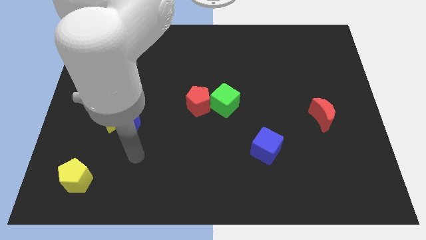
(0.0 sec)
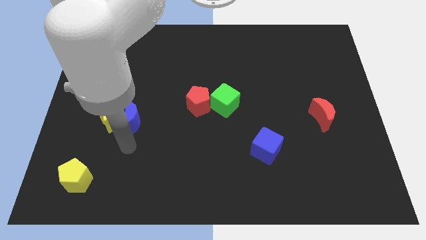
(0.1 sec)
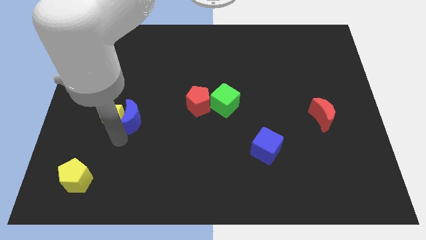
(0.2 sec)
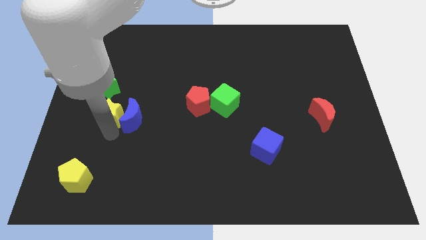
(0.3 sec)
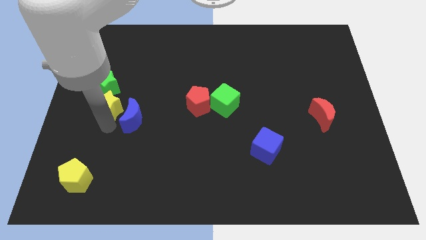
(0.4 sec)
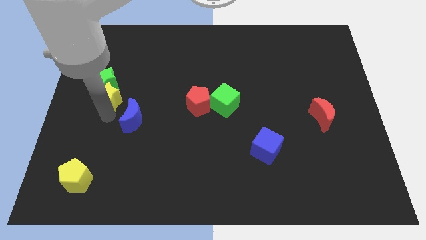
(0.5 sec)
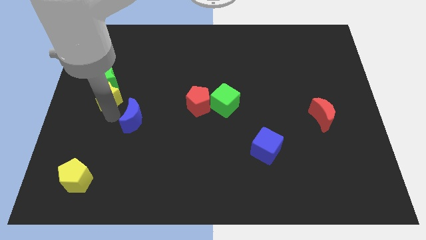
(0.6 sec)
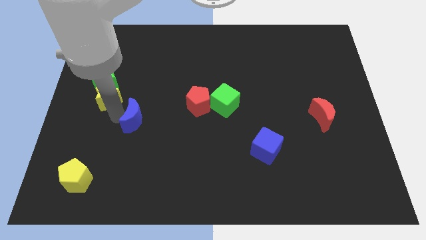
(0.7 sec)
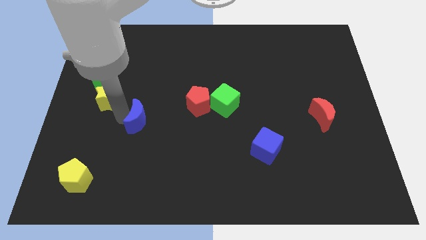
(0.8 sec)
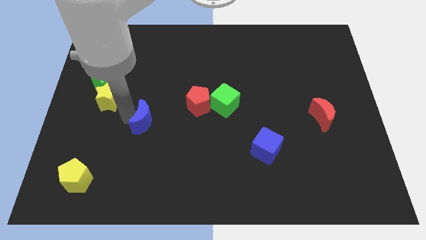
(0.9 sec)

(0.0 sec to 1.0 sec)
move the blue moon away from the yellow star

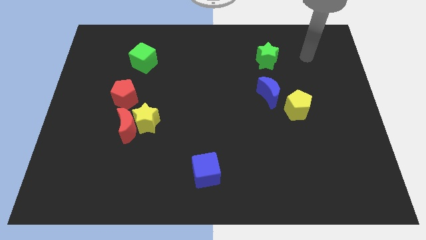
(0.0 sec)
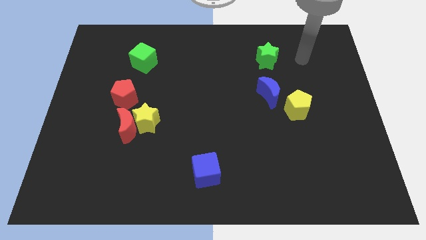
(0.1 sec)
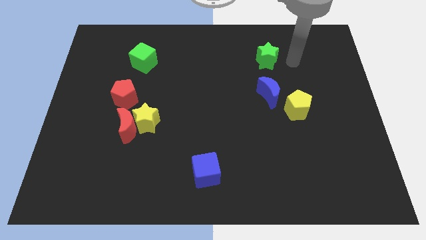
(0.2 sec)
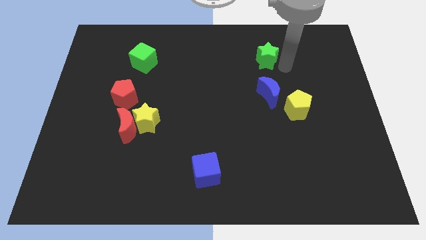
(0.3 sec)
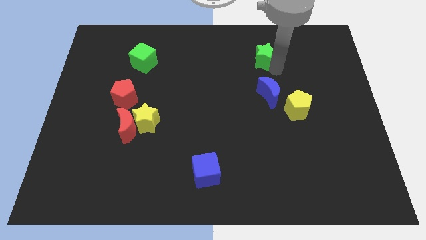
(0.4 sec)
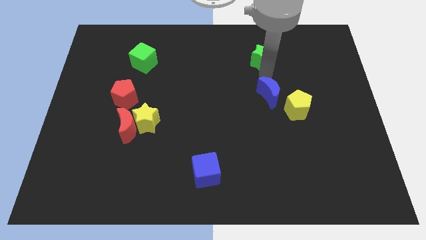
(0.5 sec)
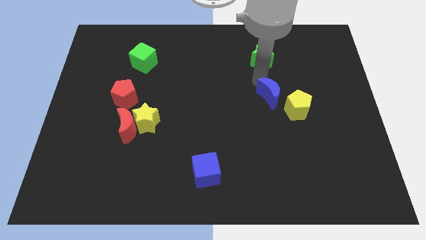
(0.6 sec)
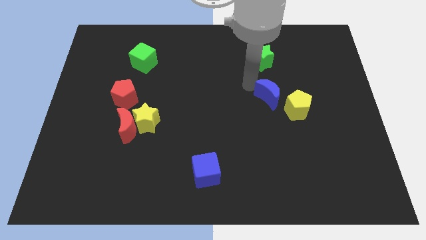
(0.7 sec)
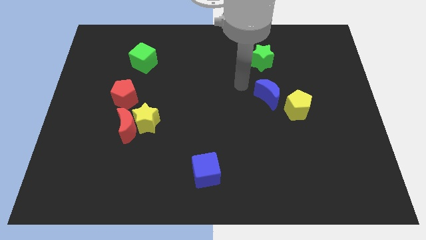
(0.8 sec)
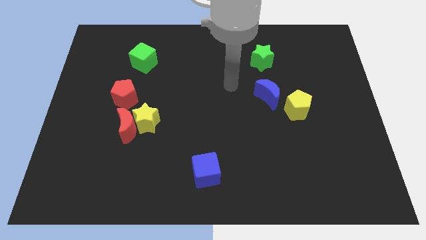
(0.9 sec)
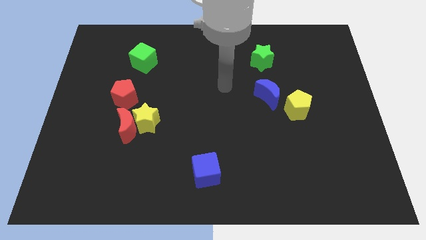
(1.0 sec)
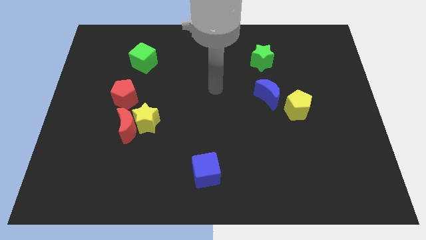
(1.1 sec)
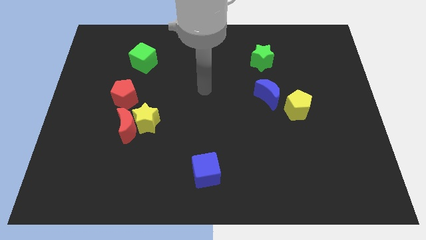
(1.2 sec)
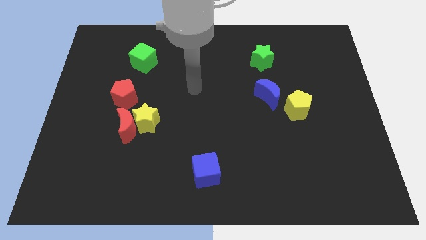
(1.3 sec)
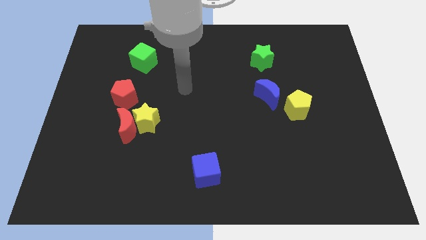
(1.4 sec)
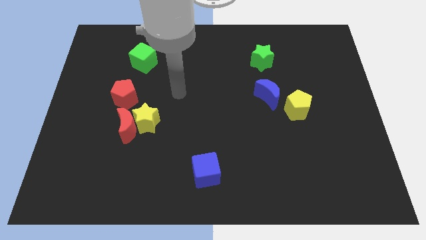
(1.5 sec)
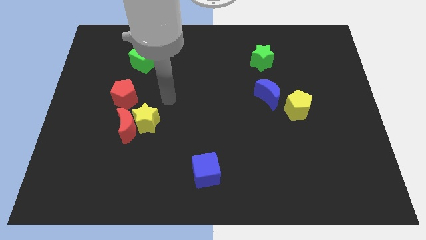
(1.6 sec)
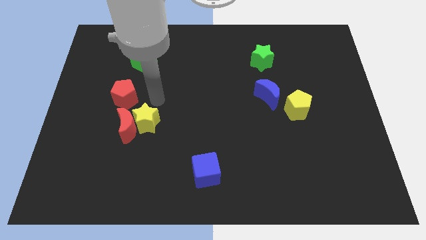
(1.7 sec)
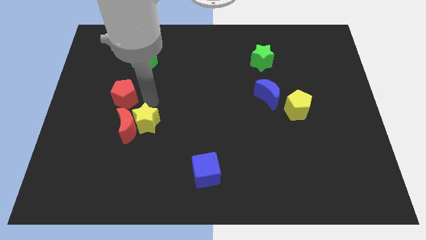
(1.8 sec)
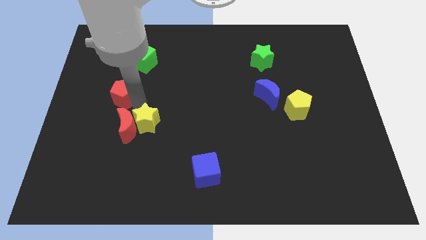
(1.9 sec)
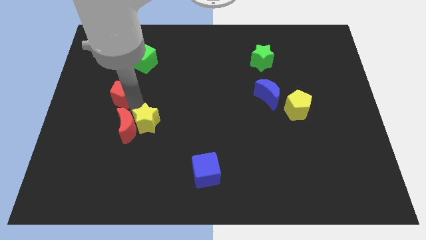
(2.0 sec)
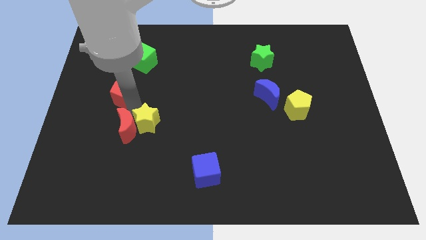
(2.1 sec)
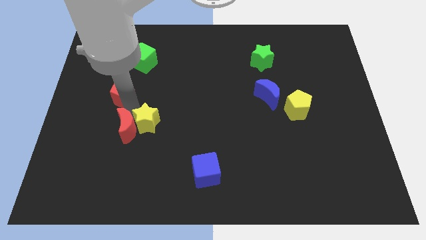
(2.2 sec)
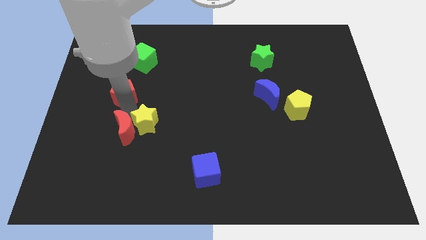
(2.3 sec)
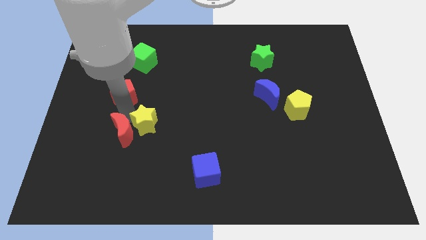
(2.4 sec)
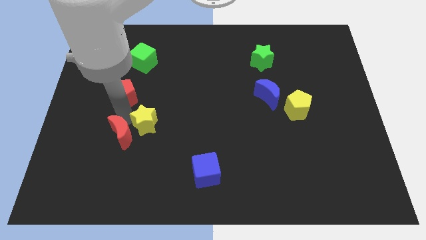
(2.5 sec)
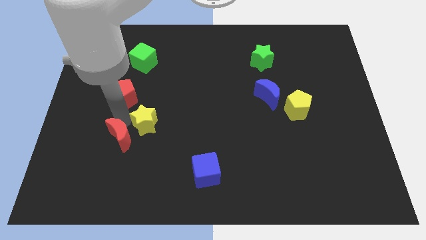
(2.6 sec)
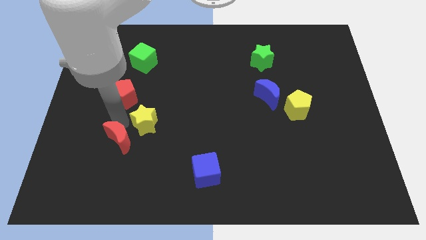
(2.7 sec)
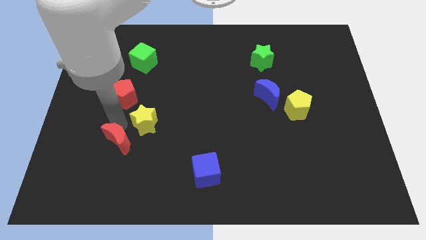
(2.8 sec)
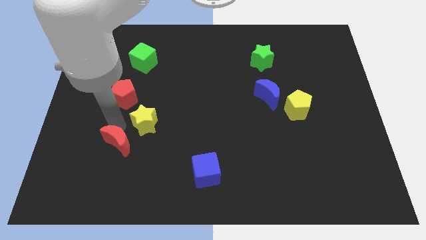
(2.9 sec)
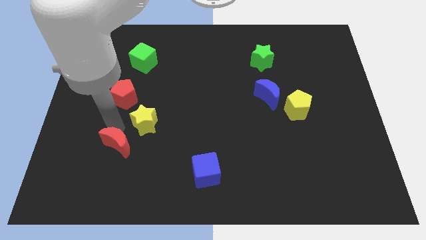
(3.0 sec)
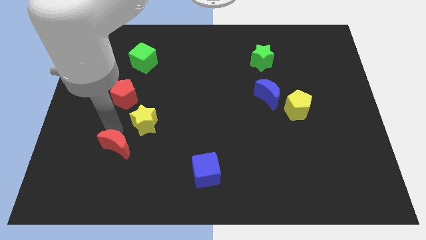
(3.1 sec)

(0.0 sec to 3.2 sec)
separate the red moon from the yellow star and red pentagon

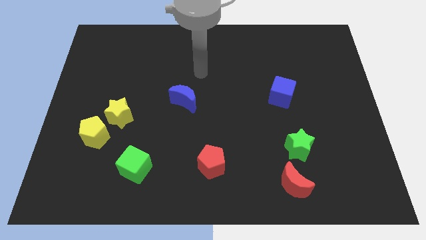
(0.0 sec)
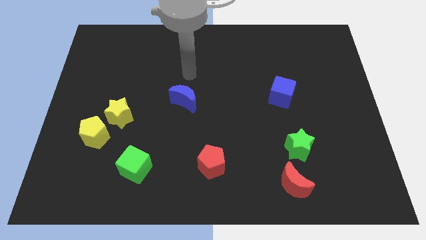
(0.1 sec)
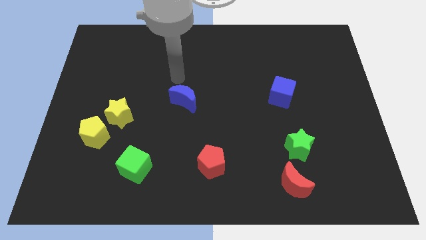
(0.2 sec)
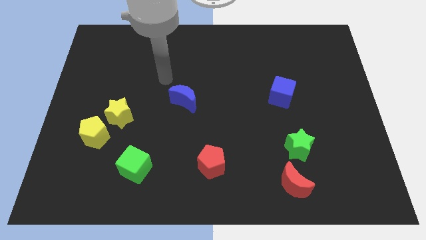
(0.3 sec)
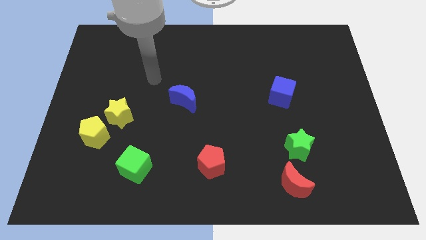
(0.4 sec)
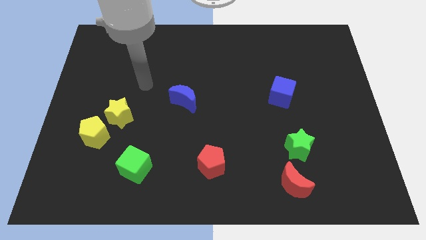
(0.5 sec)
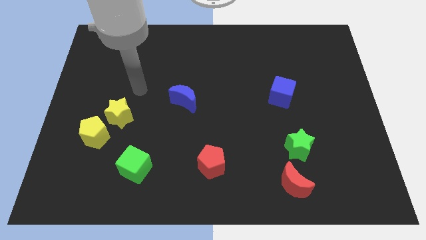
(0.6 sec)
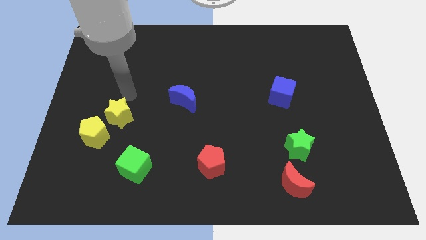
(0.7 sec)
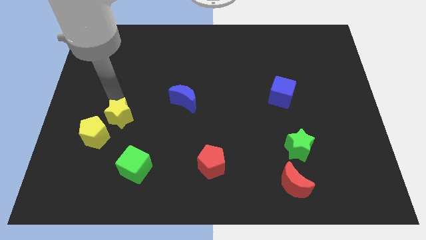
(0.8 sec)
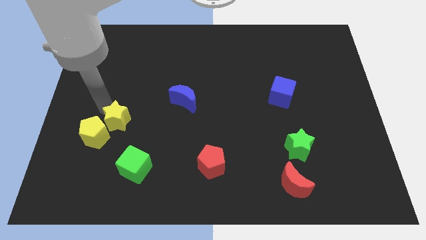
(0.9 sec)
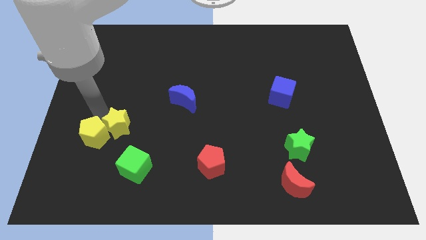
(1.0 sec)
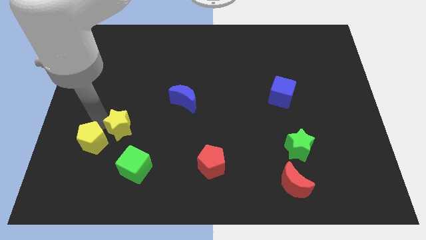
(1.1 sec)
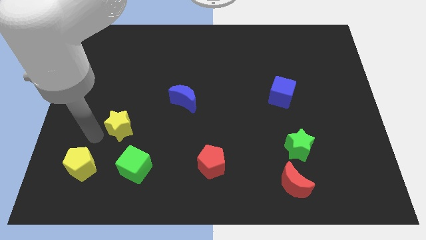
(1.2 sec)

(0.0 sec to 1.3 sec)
pull the yellow star apart from the yellow pentagon

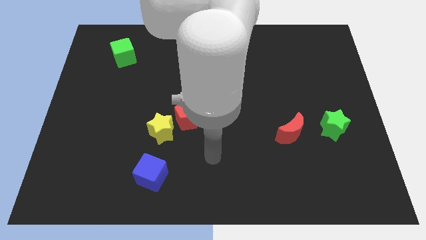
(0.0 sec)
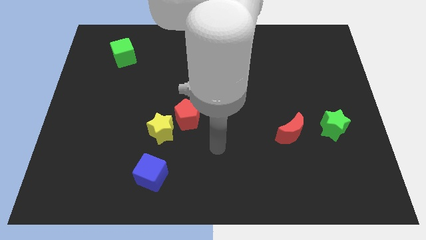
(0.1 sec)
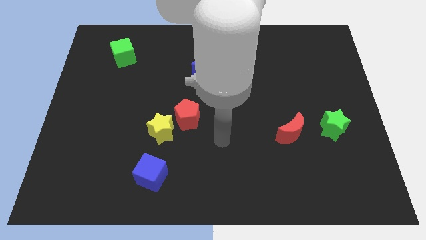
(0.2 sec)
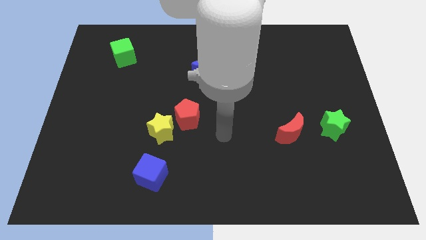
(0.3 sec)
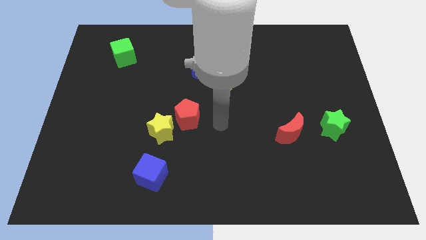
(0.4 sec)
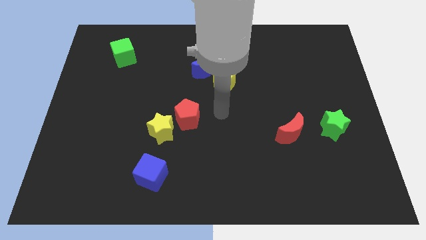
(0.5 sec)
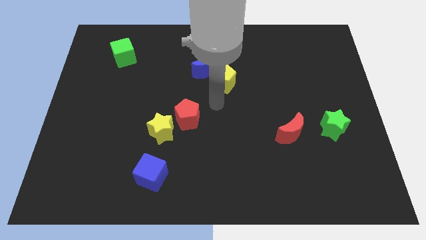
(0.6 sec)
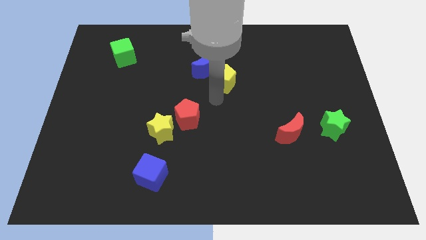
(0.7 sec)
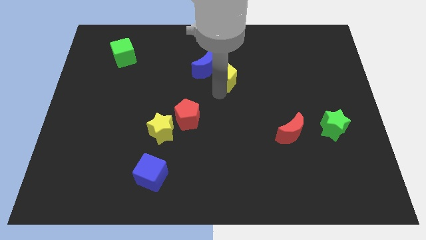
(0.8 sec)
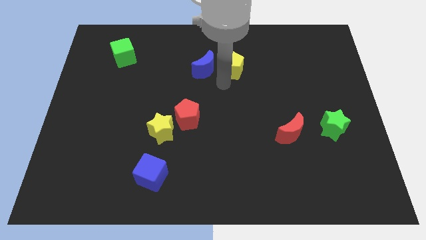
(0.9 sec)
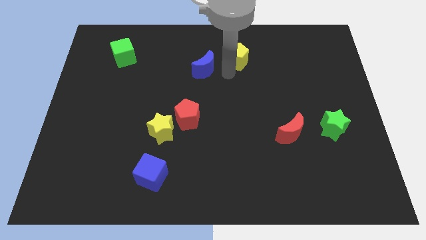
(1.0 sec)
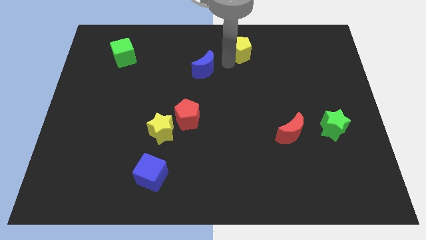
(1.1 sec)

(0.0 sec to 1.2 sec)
pull the blue moon apart from the yellow pentagon

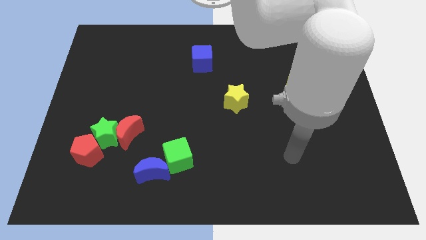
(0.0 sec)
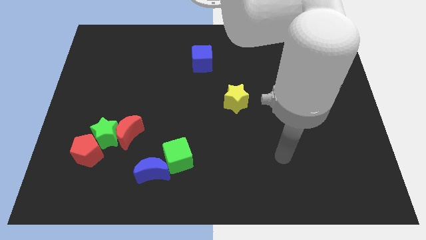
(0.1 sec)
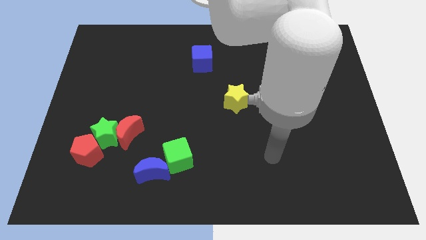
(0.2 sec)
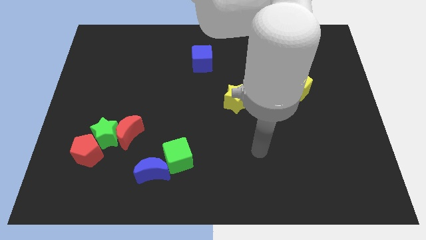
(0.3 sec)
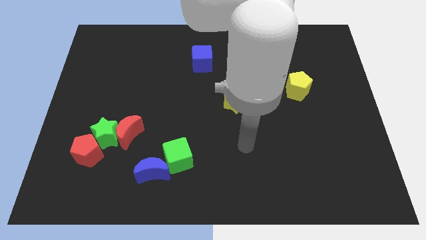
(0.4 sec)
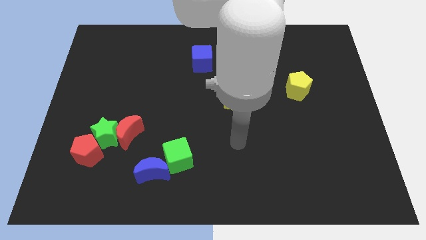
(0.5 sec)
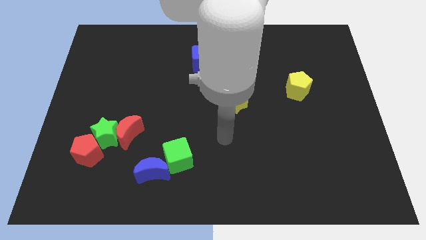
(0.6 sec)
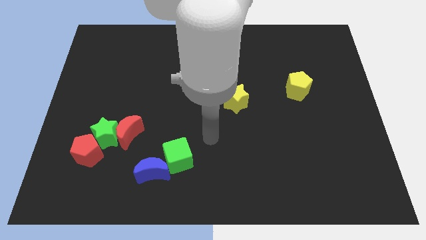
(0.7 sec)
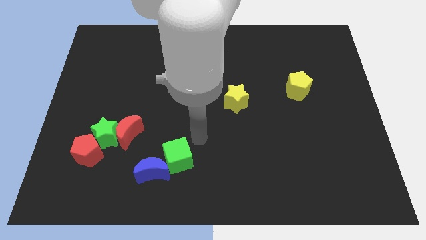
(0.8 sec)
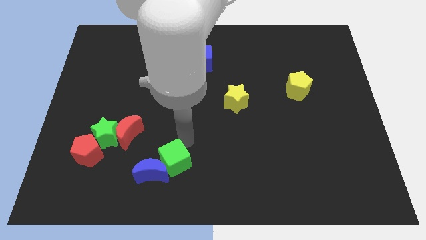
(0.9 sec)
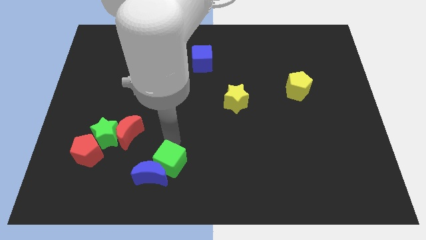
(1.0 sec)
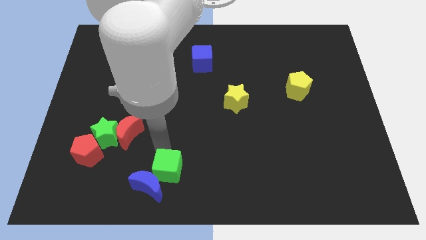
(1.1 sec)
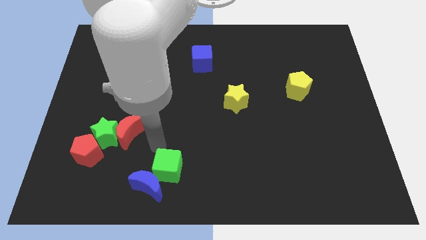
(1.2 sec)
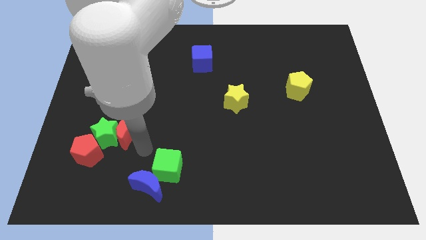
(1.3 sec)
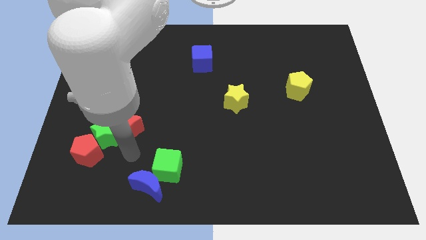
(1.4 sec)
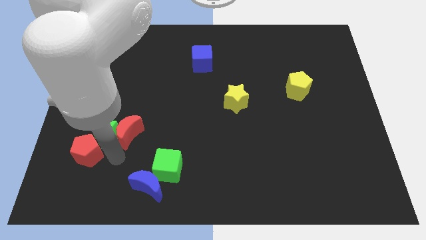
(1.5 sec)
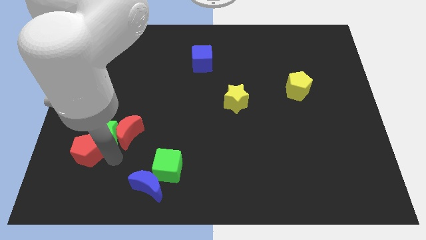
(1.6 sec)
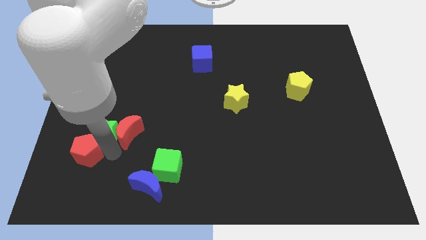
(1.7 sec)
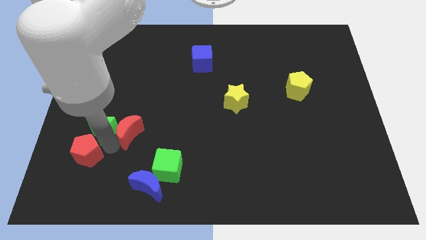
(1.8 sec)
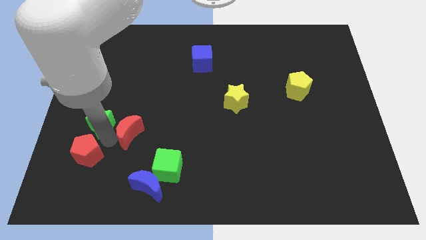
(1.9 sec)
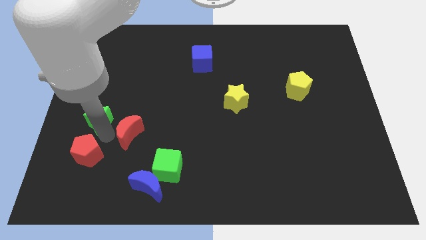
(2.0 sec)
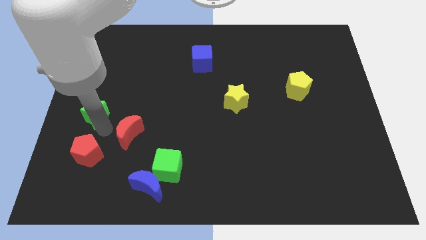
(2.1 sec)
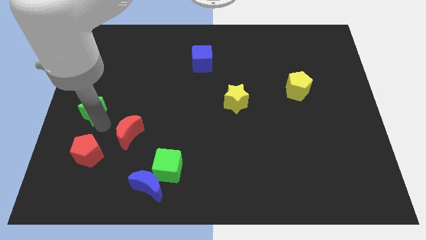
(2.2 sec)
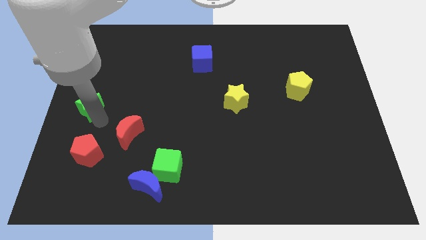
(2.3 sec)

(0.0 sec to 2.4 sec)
pull the green star apart from the red moon and red pentagon

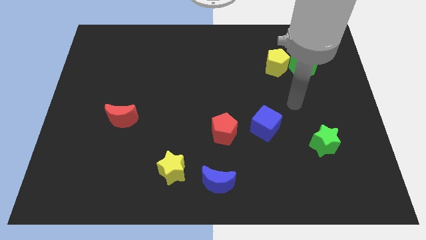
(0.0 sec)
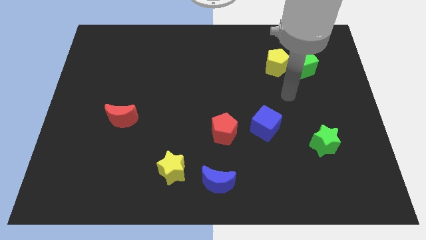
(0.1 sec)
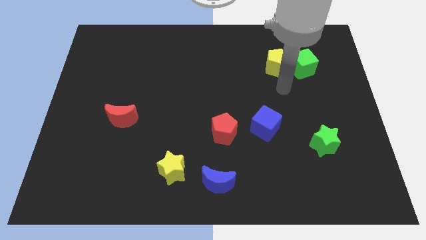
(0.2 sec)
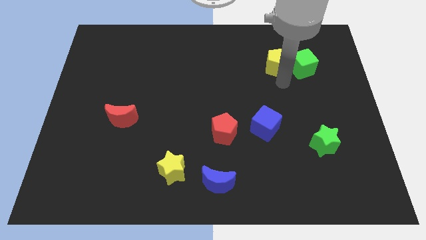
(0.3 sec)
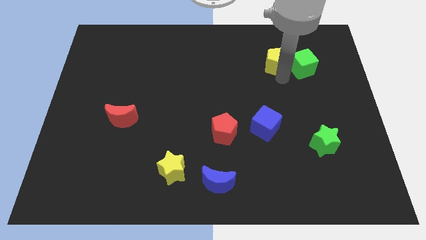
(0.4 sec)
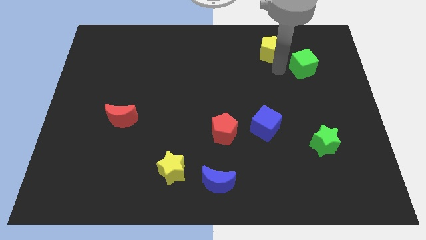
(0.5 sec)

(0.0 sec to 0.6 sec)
pull the green cube apart from the yellow pentagon
